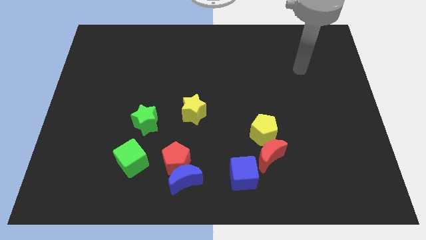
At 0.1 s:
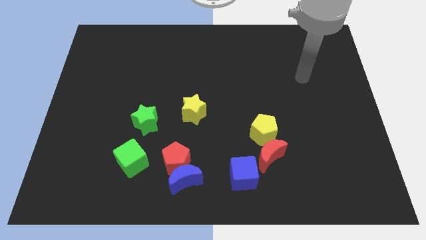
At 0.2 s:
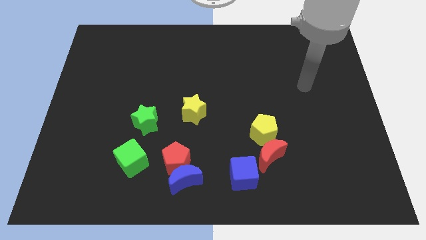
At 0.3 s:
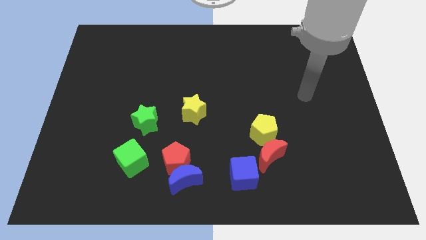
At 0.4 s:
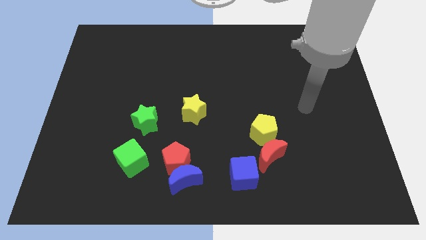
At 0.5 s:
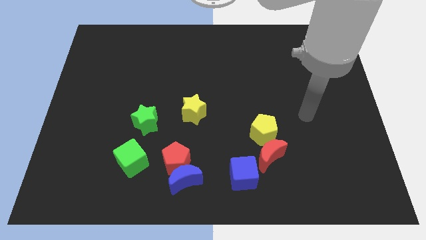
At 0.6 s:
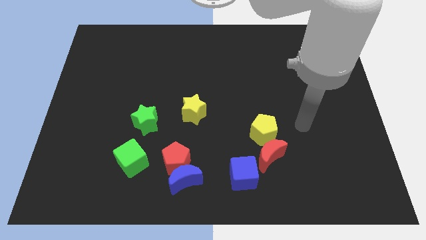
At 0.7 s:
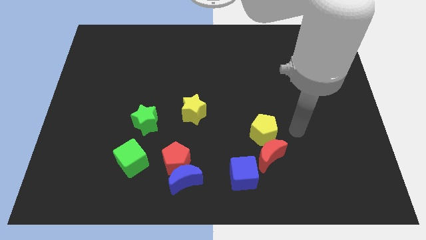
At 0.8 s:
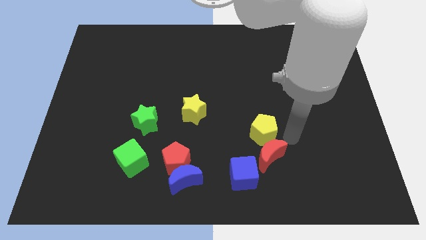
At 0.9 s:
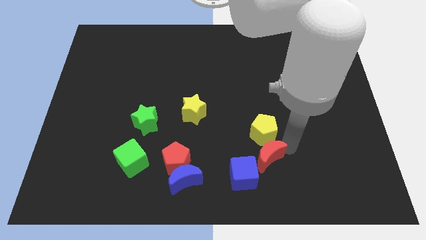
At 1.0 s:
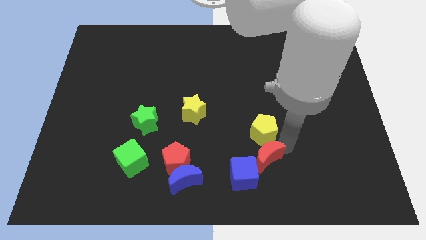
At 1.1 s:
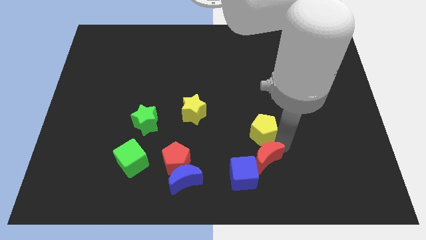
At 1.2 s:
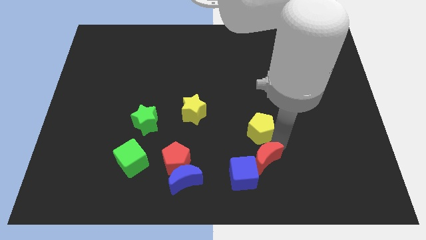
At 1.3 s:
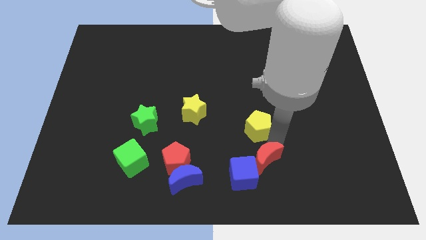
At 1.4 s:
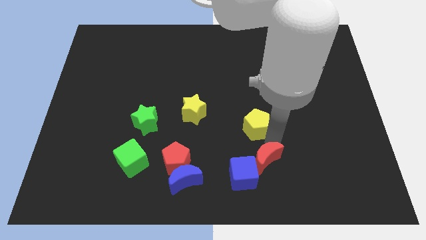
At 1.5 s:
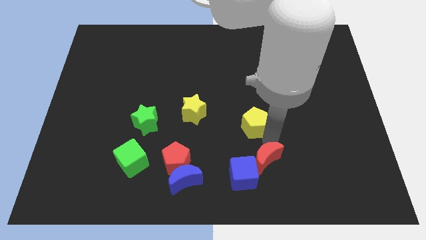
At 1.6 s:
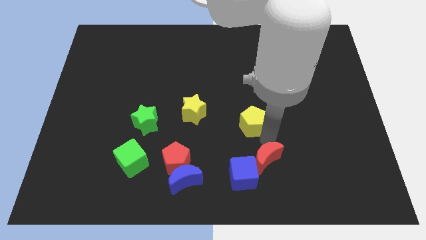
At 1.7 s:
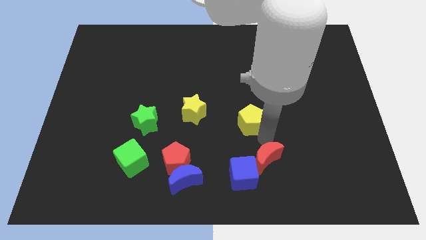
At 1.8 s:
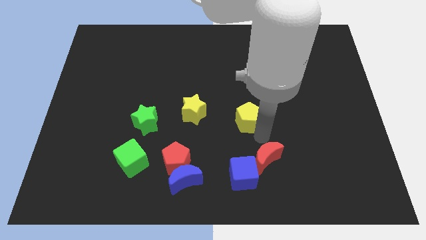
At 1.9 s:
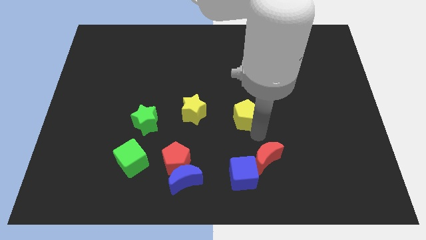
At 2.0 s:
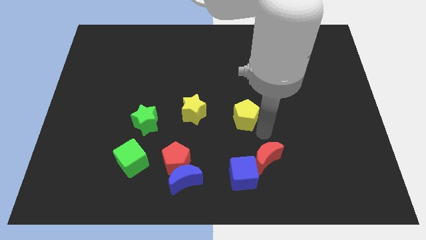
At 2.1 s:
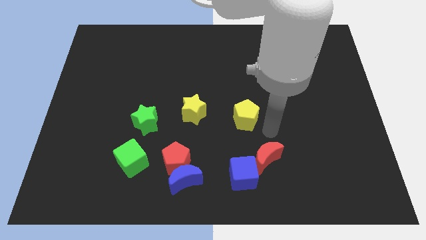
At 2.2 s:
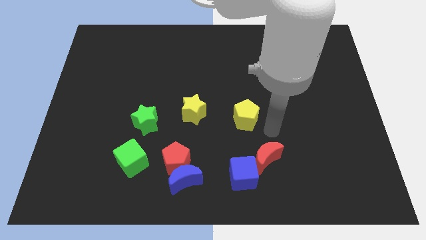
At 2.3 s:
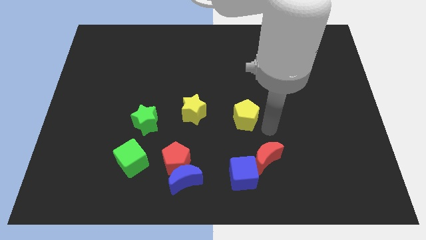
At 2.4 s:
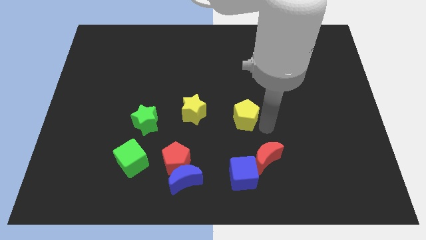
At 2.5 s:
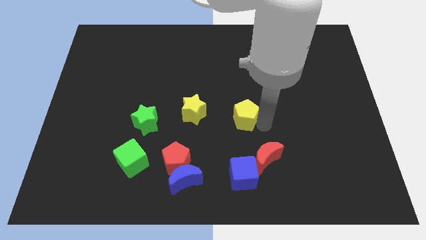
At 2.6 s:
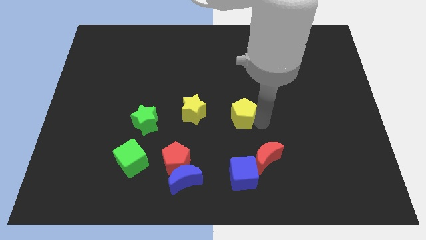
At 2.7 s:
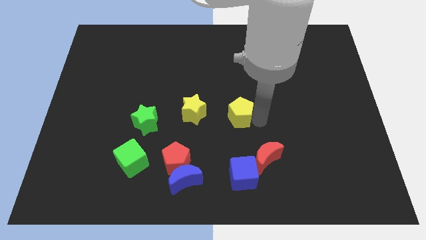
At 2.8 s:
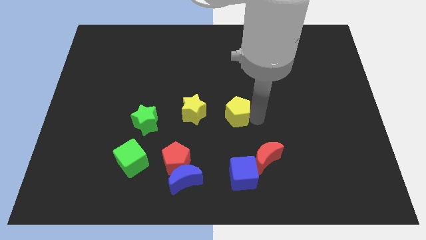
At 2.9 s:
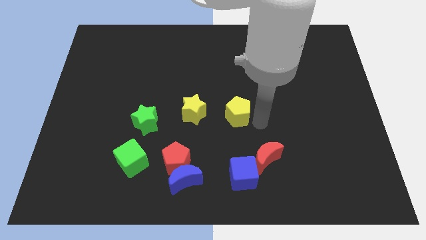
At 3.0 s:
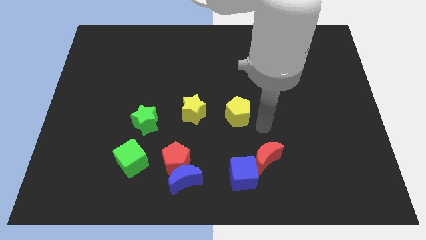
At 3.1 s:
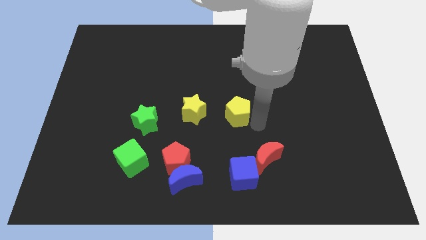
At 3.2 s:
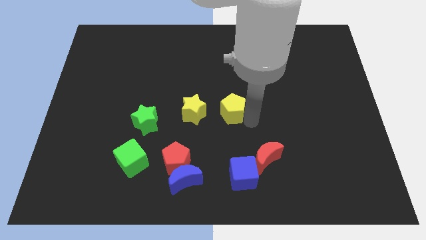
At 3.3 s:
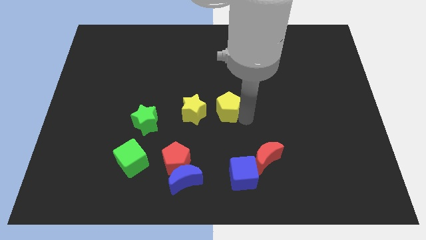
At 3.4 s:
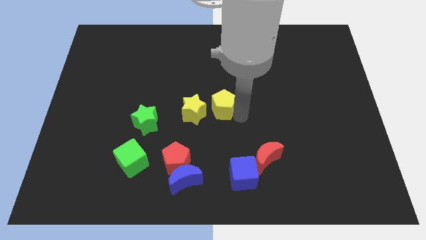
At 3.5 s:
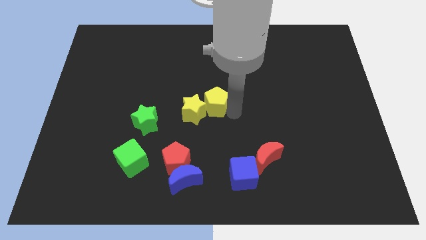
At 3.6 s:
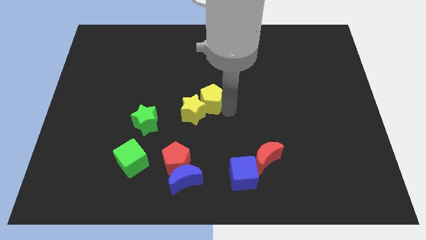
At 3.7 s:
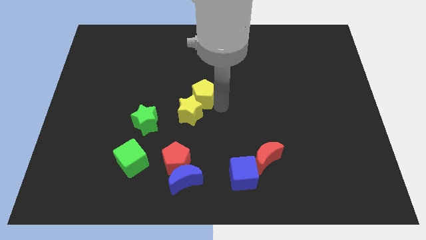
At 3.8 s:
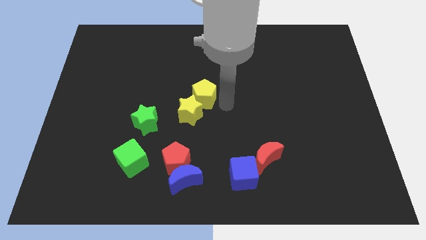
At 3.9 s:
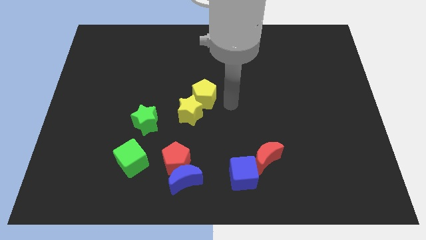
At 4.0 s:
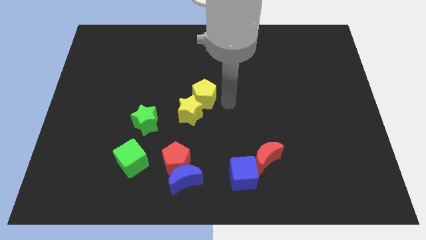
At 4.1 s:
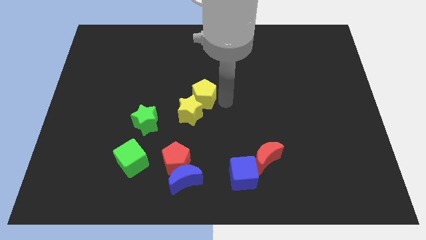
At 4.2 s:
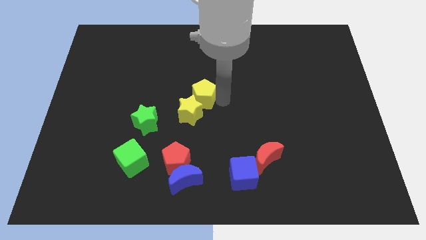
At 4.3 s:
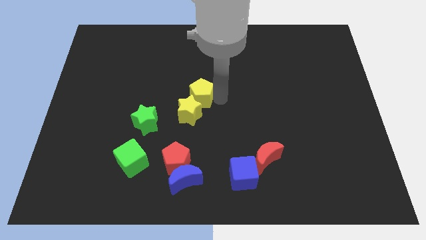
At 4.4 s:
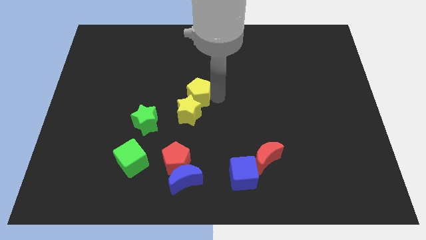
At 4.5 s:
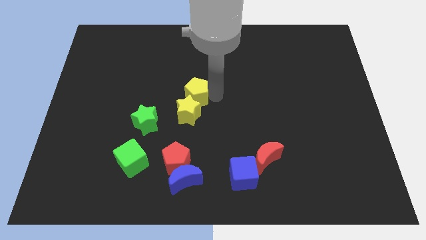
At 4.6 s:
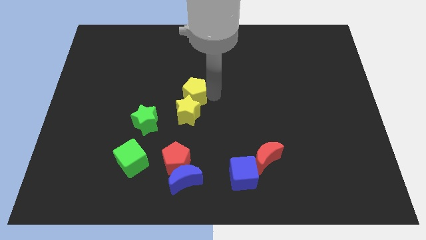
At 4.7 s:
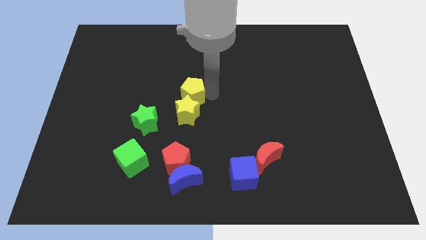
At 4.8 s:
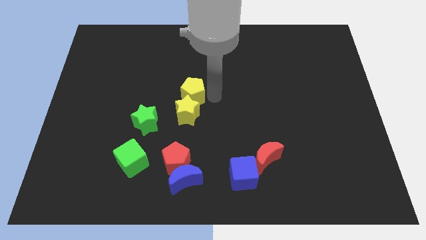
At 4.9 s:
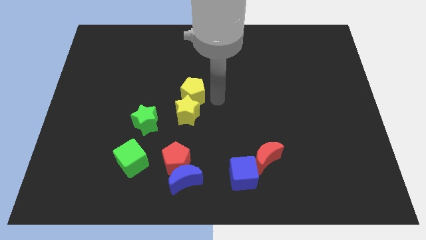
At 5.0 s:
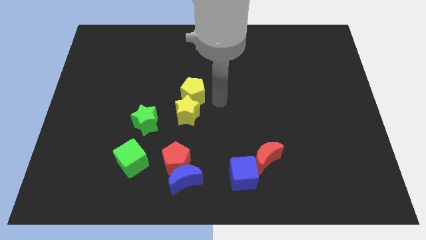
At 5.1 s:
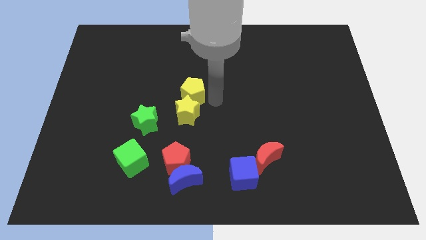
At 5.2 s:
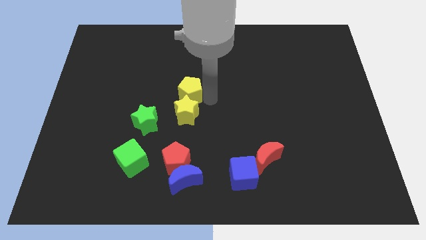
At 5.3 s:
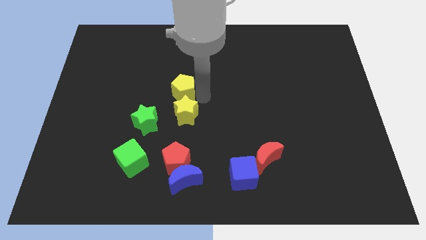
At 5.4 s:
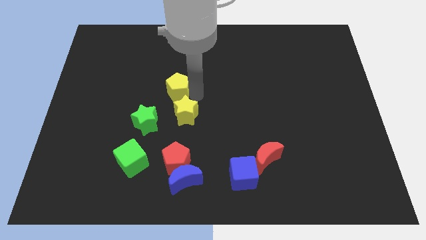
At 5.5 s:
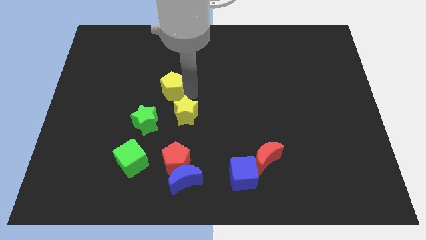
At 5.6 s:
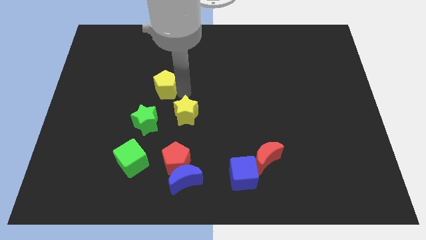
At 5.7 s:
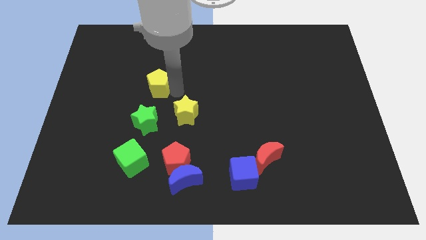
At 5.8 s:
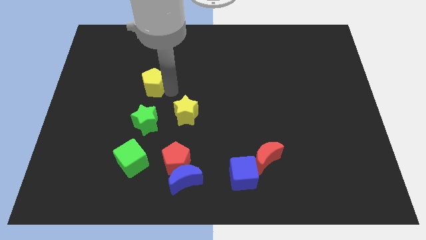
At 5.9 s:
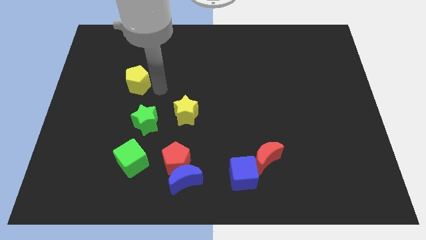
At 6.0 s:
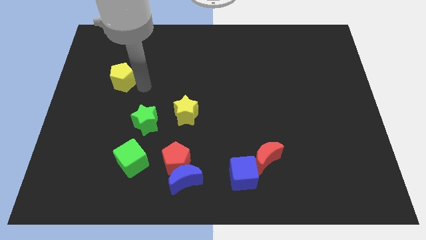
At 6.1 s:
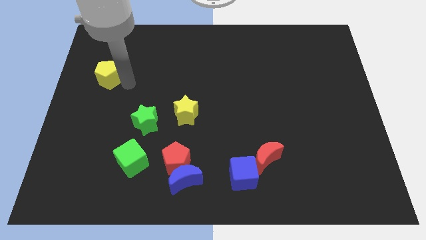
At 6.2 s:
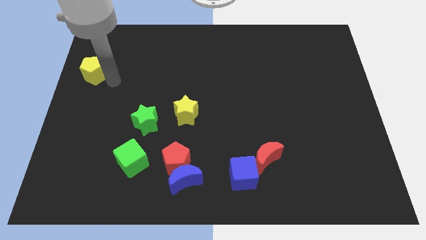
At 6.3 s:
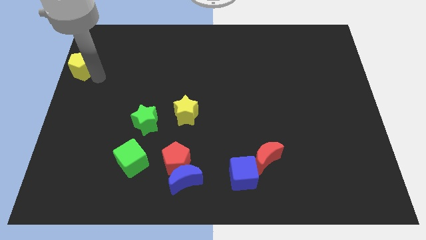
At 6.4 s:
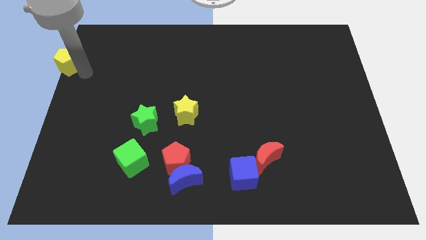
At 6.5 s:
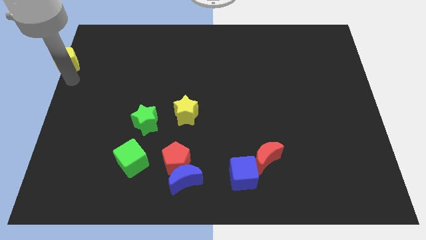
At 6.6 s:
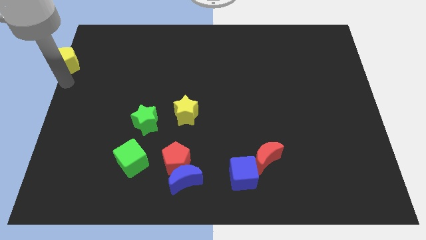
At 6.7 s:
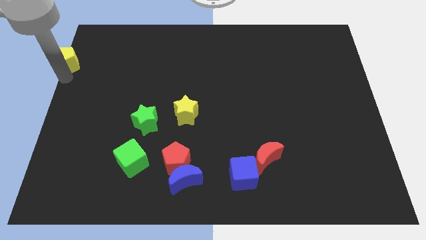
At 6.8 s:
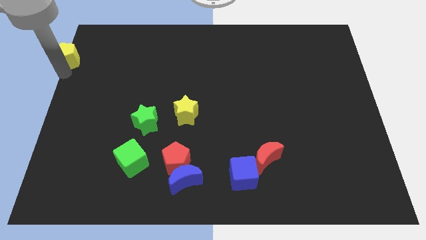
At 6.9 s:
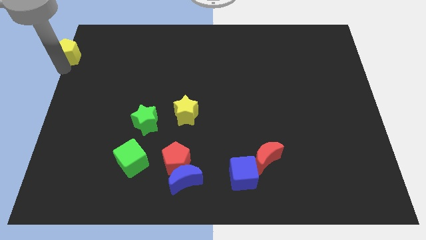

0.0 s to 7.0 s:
slide the yellow pentagon to the top left of the board
